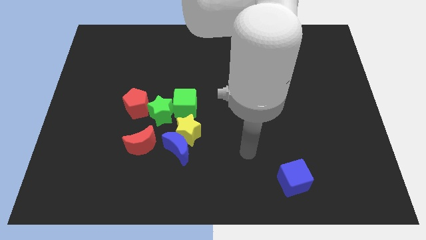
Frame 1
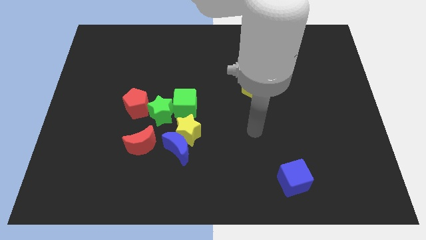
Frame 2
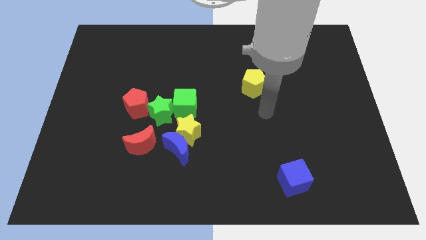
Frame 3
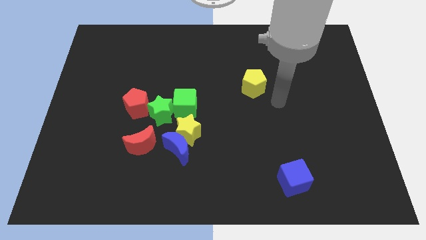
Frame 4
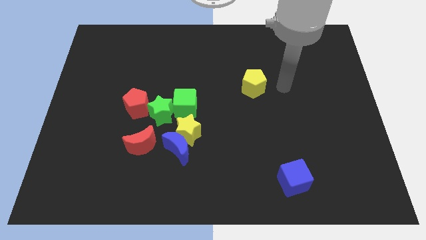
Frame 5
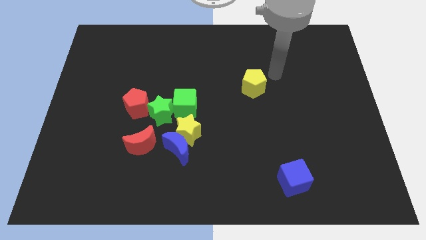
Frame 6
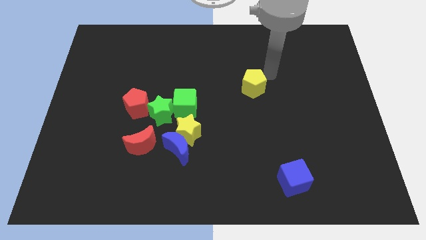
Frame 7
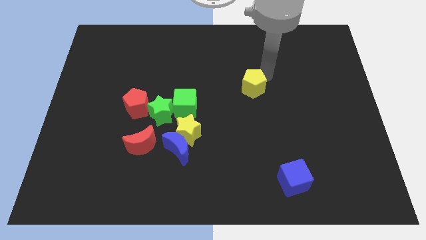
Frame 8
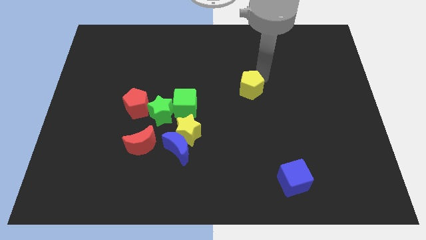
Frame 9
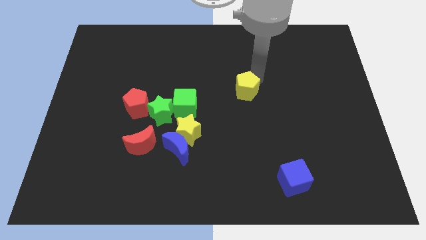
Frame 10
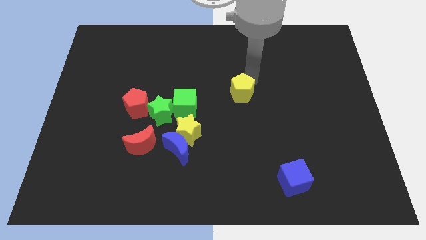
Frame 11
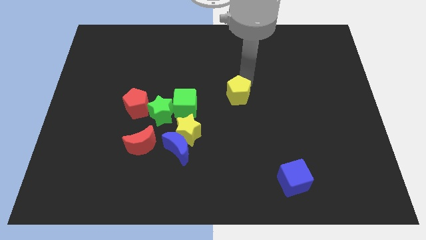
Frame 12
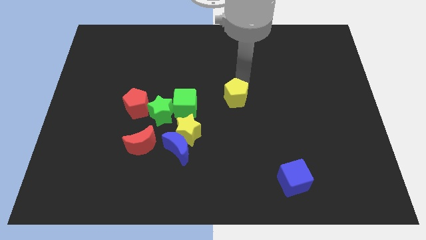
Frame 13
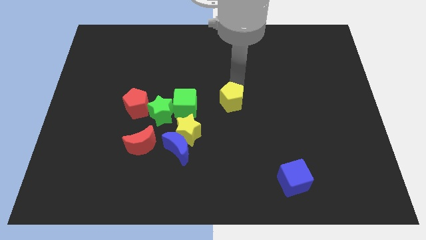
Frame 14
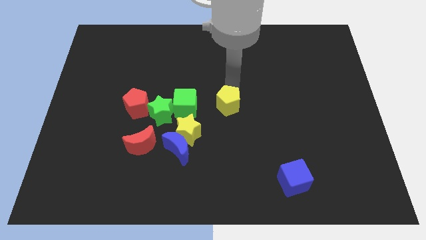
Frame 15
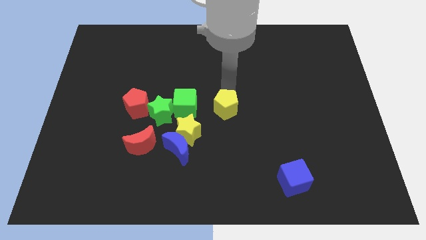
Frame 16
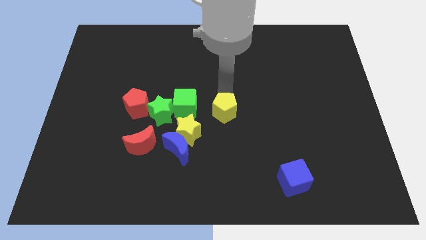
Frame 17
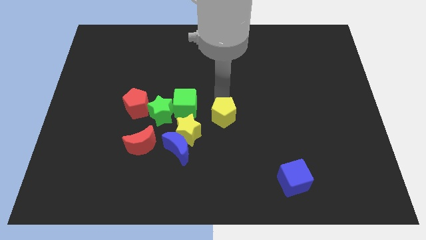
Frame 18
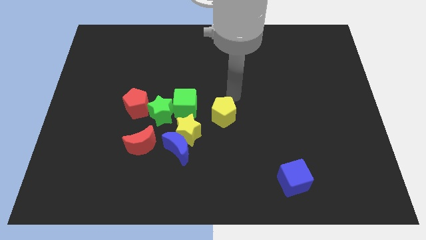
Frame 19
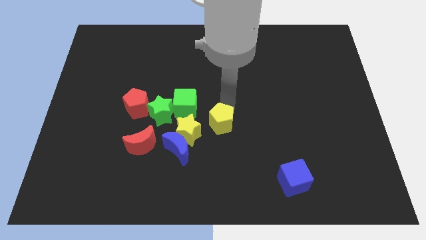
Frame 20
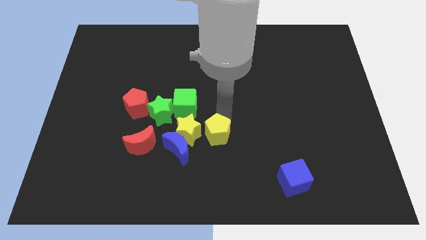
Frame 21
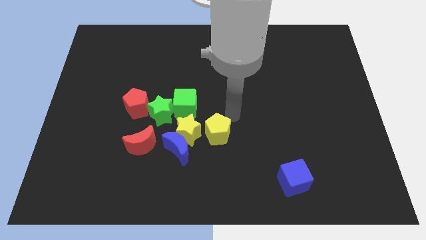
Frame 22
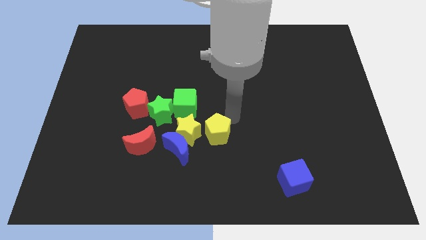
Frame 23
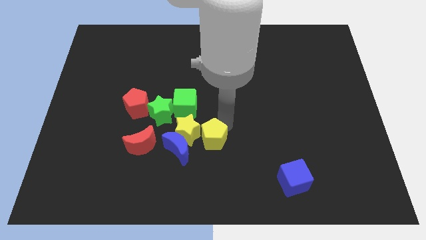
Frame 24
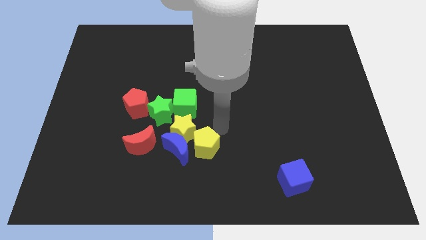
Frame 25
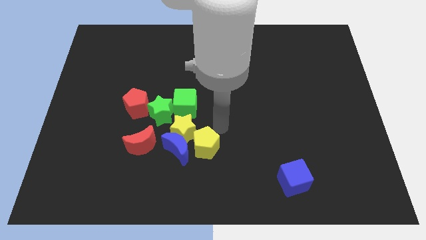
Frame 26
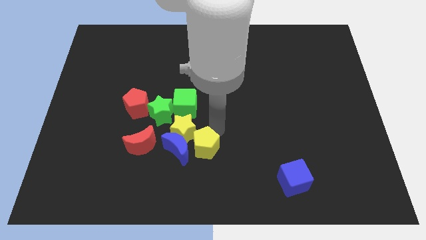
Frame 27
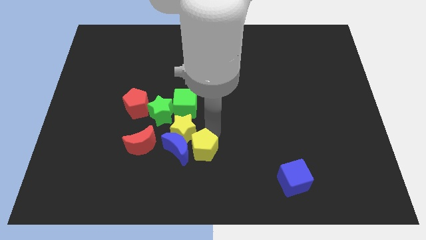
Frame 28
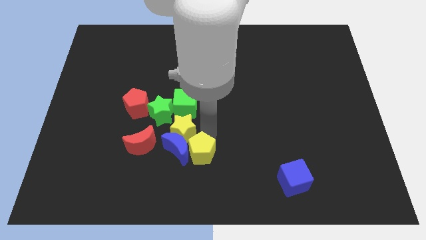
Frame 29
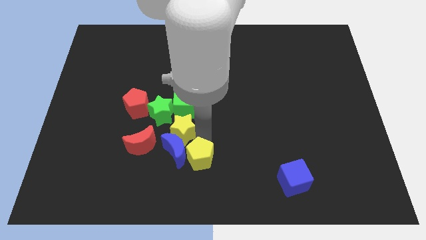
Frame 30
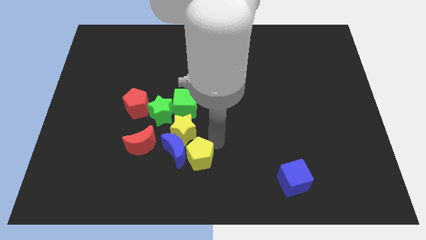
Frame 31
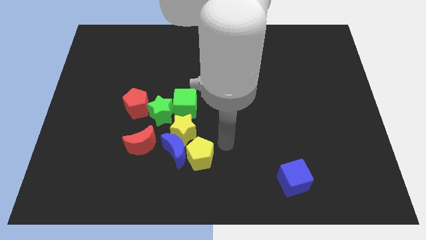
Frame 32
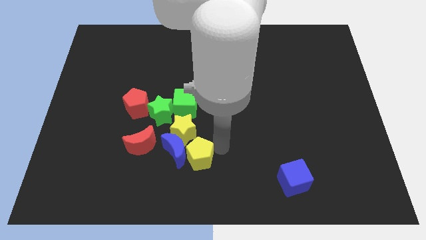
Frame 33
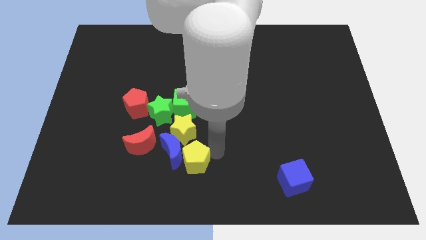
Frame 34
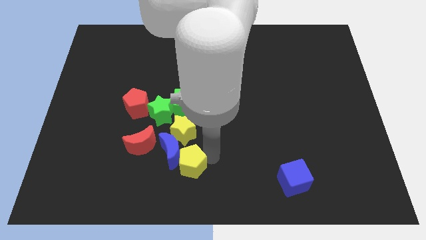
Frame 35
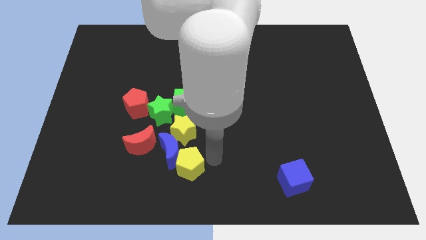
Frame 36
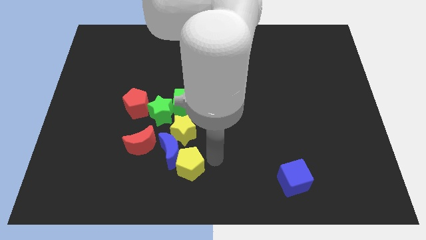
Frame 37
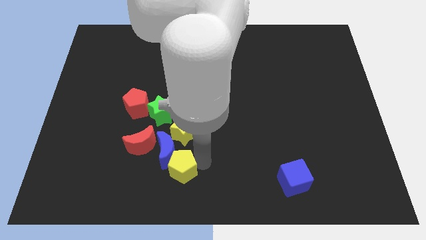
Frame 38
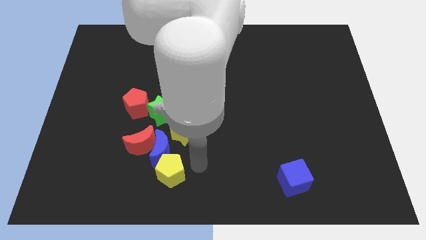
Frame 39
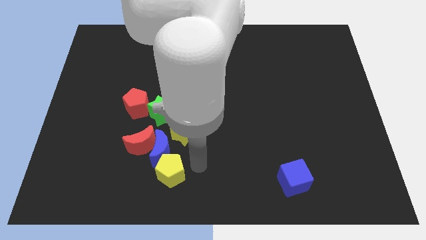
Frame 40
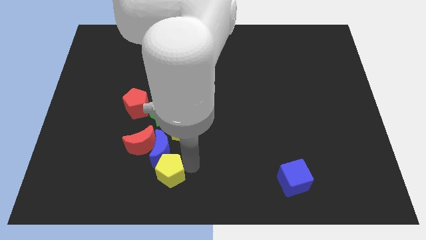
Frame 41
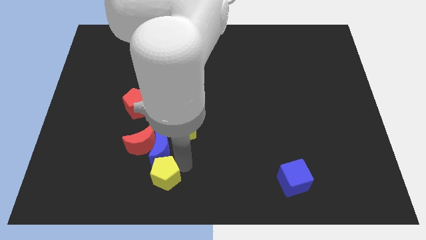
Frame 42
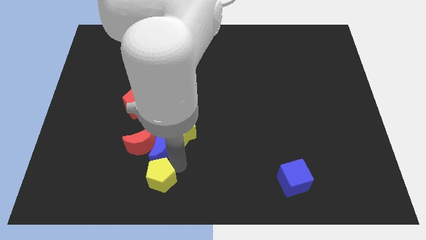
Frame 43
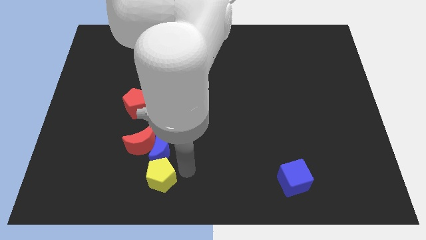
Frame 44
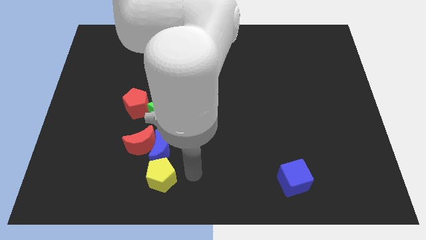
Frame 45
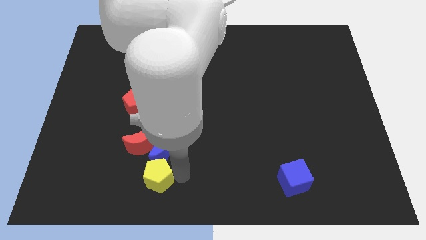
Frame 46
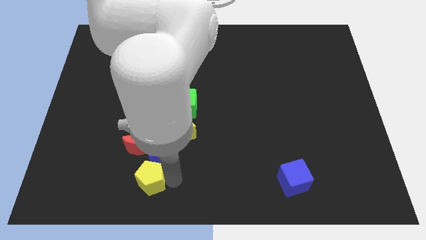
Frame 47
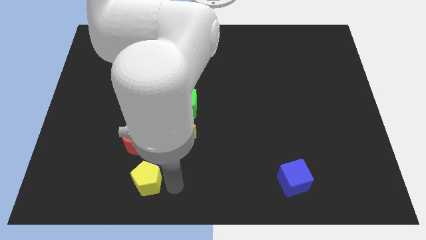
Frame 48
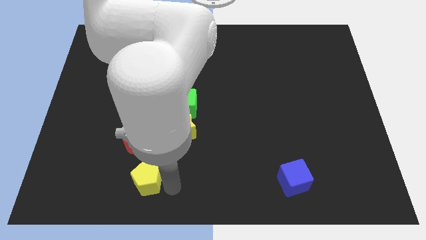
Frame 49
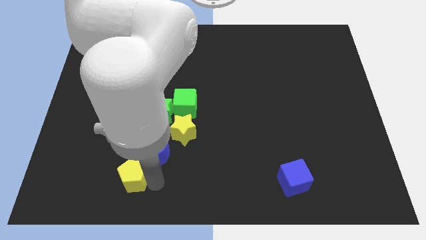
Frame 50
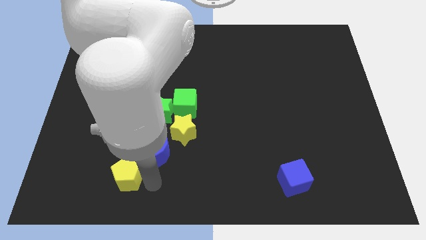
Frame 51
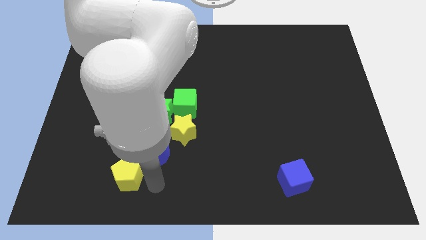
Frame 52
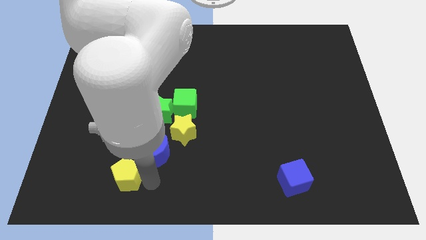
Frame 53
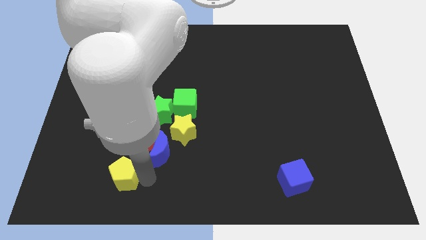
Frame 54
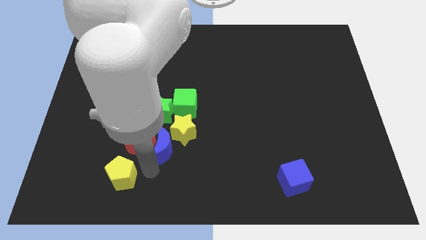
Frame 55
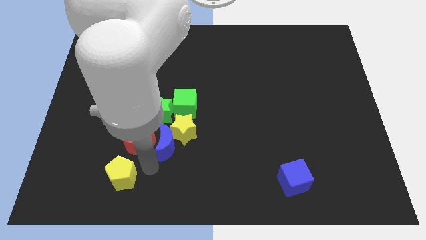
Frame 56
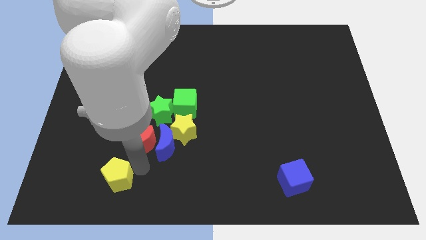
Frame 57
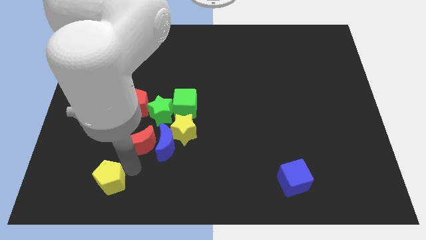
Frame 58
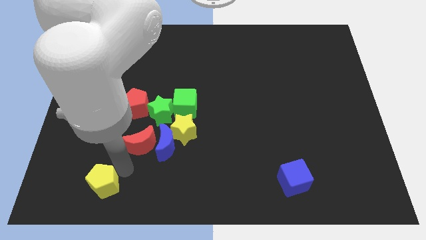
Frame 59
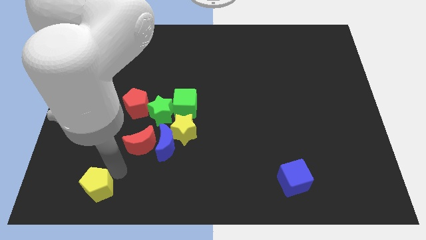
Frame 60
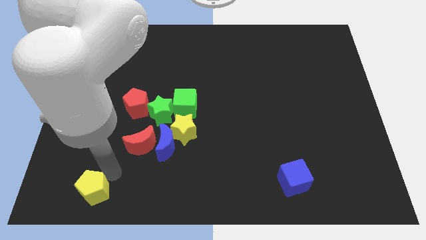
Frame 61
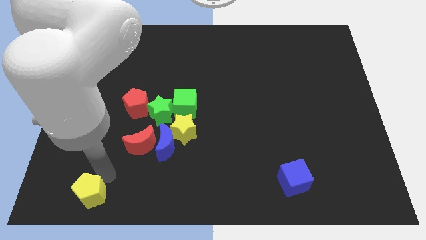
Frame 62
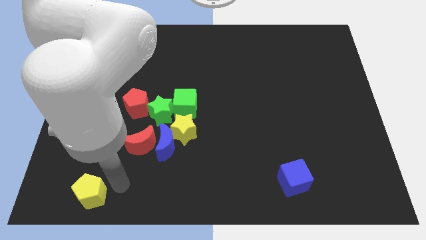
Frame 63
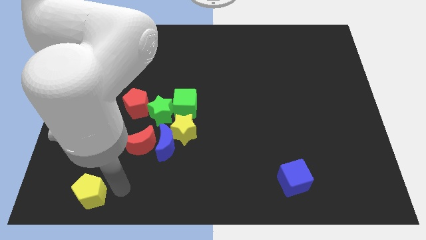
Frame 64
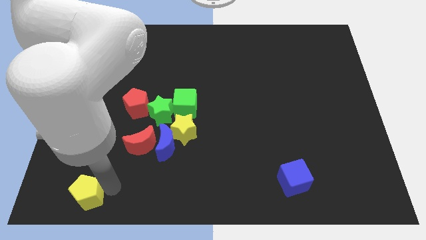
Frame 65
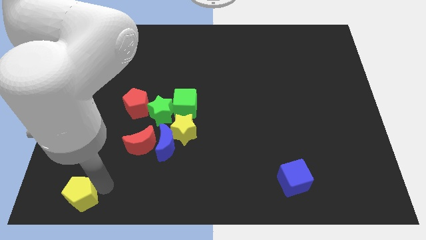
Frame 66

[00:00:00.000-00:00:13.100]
move the yellow pentagon to the bottom left corner
